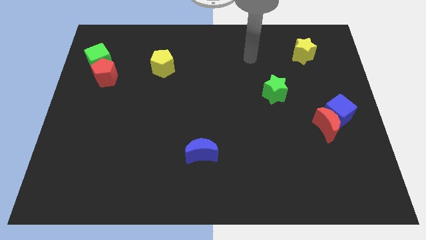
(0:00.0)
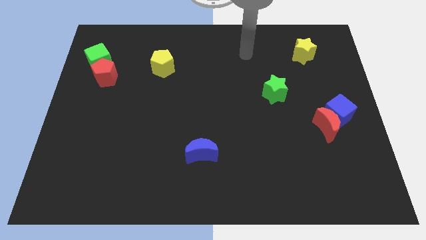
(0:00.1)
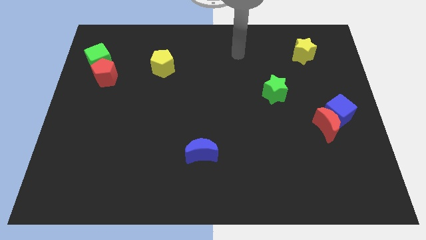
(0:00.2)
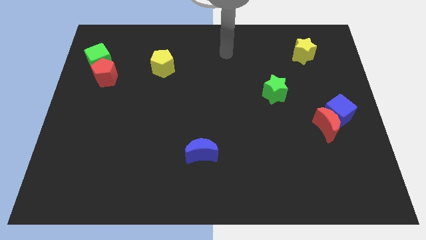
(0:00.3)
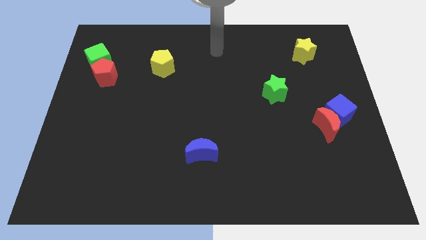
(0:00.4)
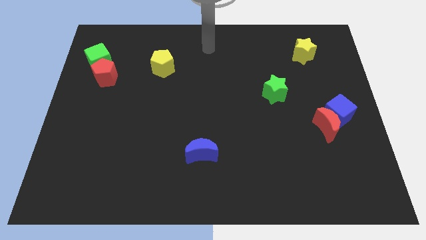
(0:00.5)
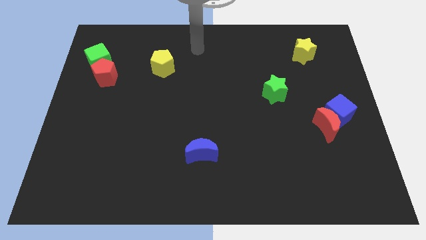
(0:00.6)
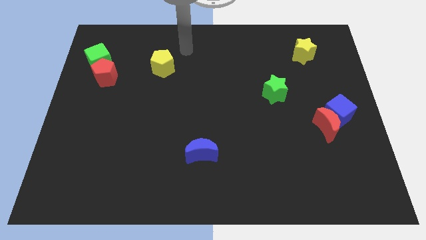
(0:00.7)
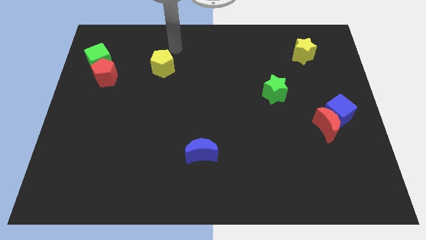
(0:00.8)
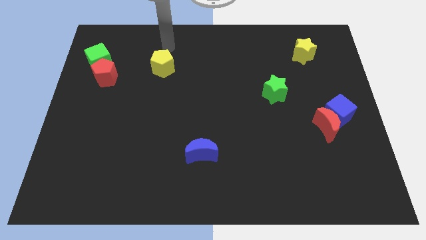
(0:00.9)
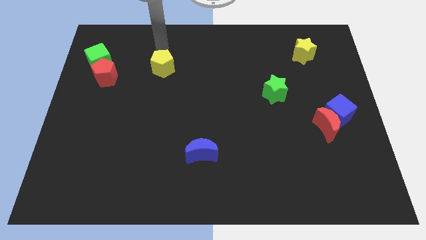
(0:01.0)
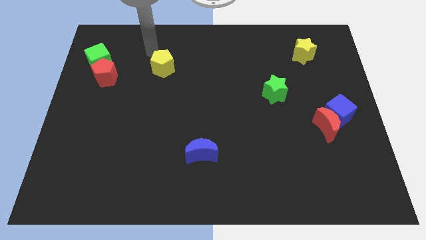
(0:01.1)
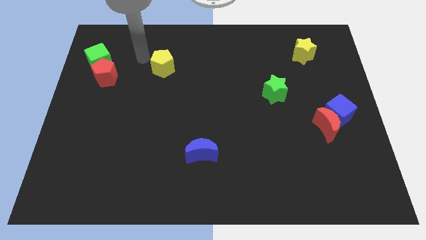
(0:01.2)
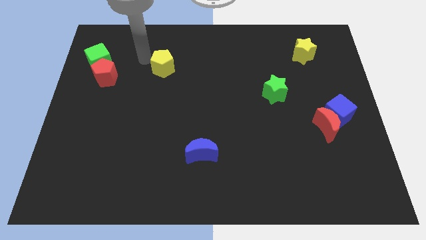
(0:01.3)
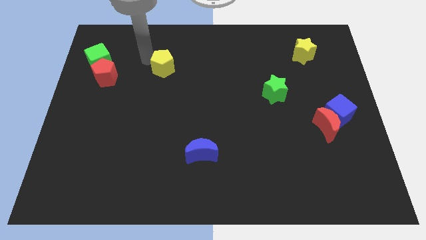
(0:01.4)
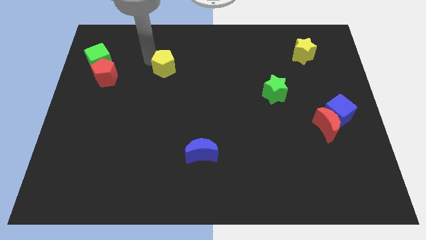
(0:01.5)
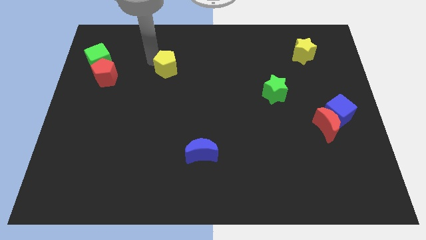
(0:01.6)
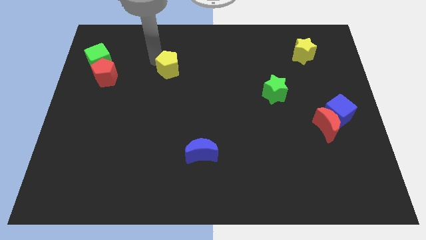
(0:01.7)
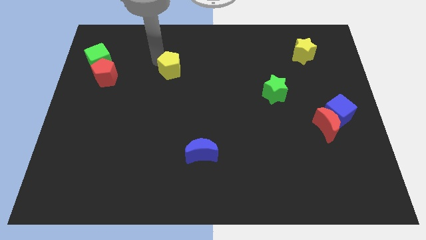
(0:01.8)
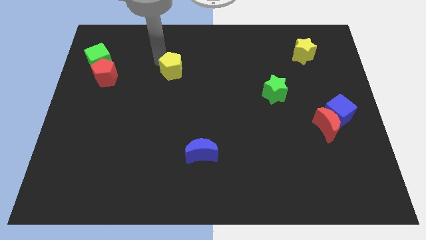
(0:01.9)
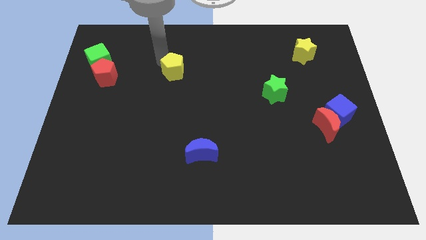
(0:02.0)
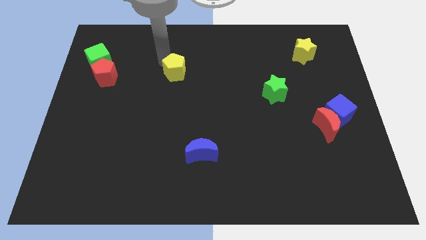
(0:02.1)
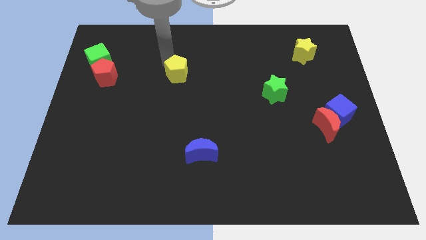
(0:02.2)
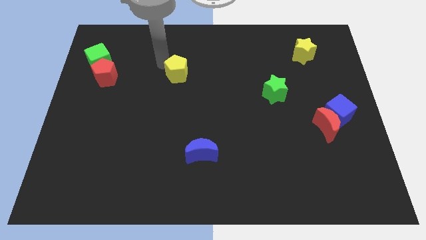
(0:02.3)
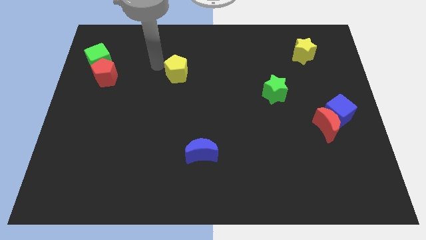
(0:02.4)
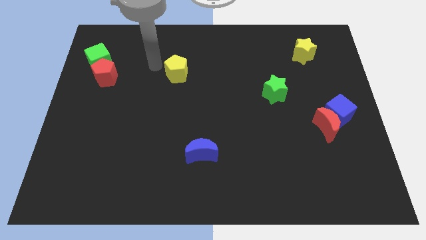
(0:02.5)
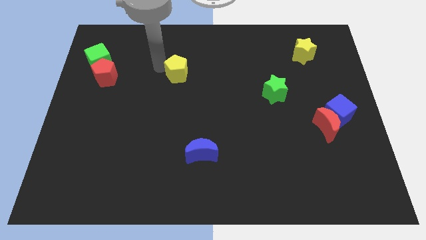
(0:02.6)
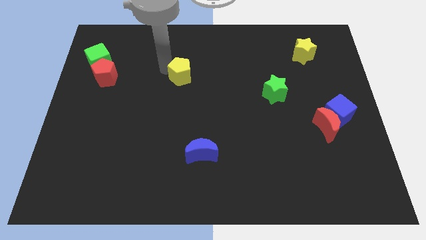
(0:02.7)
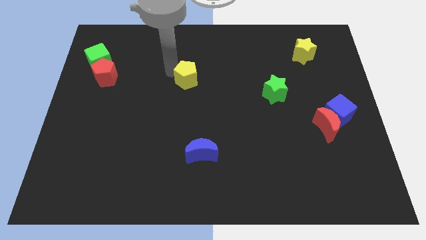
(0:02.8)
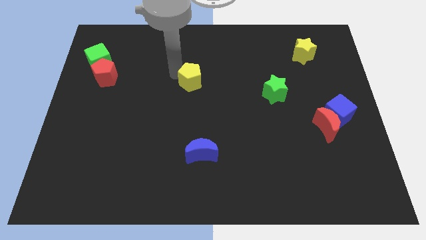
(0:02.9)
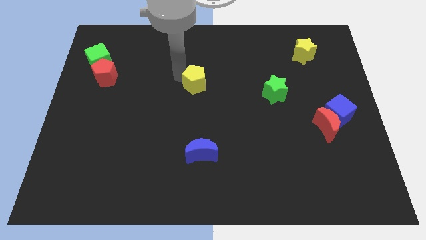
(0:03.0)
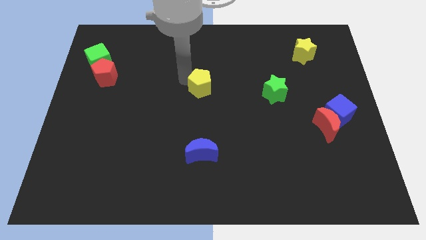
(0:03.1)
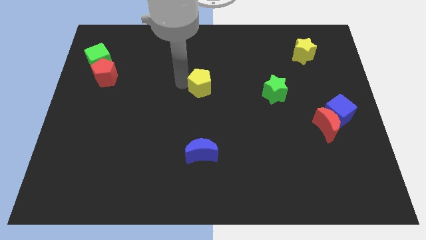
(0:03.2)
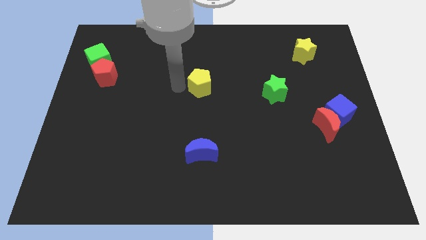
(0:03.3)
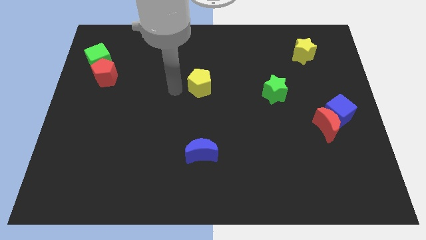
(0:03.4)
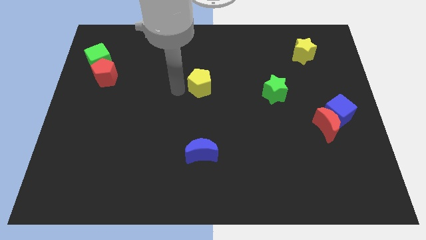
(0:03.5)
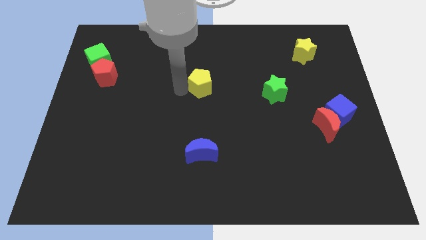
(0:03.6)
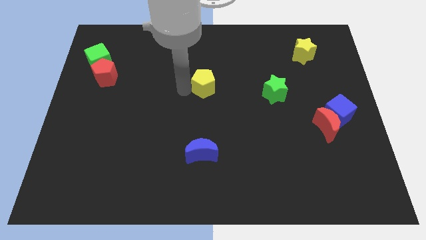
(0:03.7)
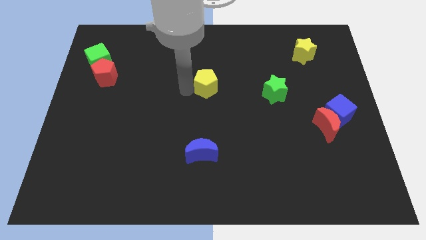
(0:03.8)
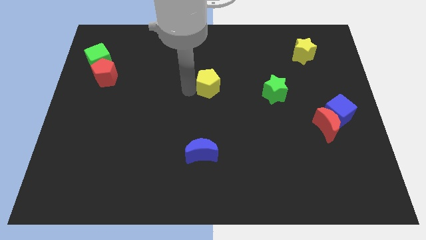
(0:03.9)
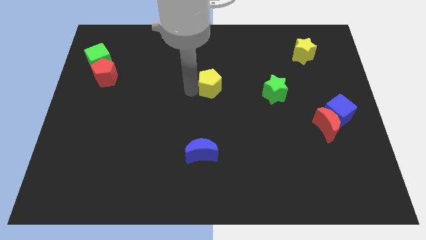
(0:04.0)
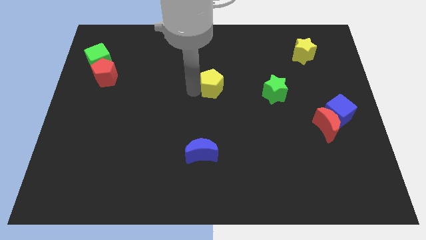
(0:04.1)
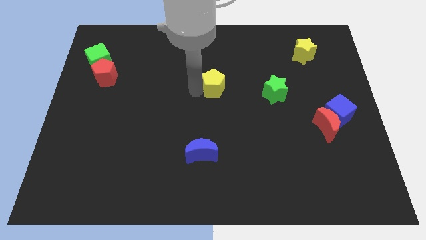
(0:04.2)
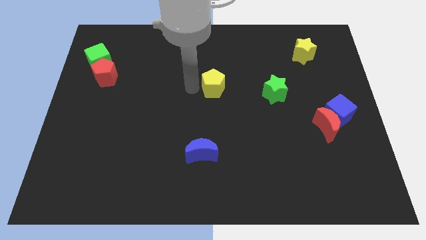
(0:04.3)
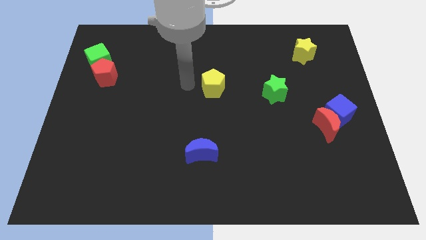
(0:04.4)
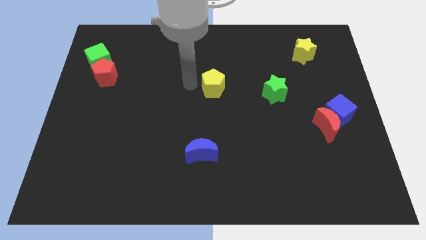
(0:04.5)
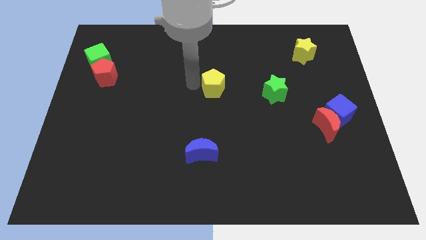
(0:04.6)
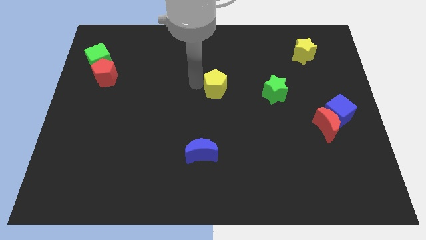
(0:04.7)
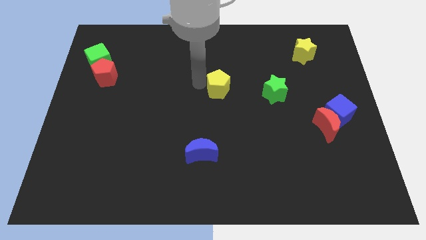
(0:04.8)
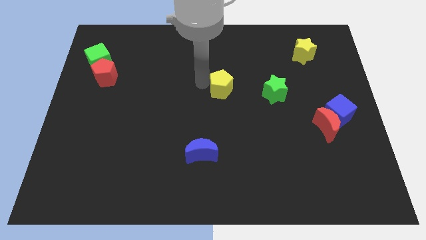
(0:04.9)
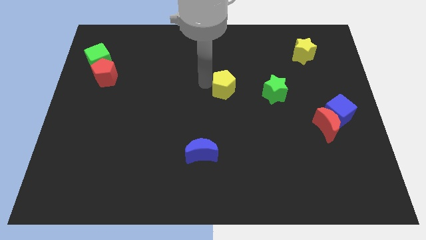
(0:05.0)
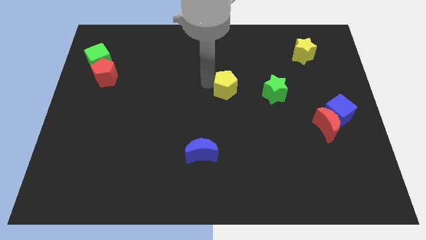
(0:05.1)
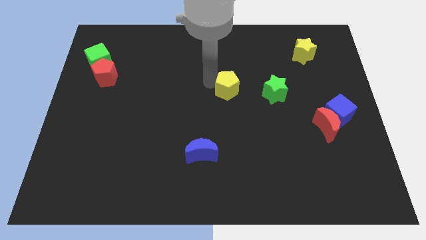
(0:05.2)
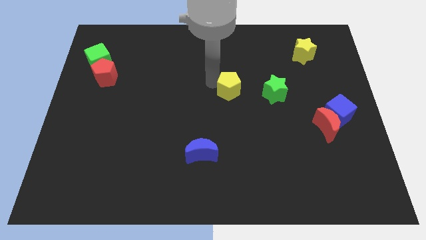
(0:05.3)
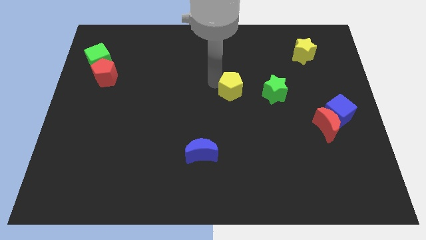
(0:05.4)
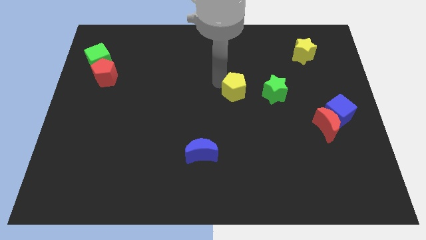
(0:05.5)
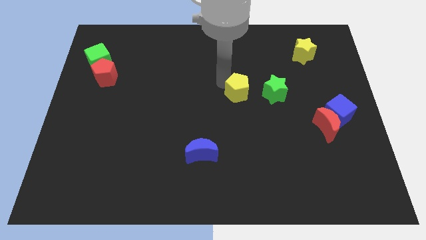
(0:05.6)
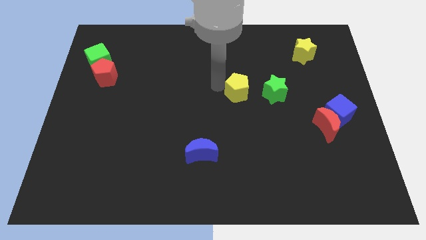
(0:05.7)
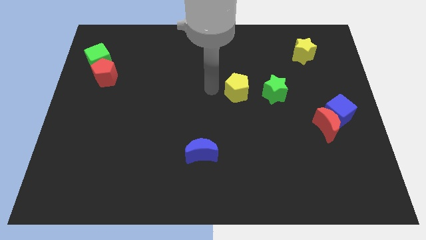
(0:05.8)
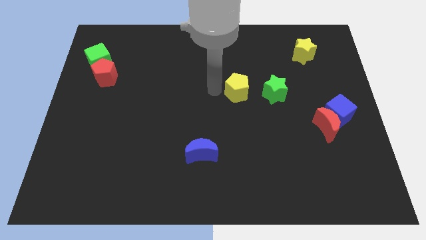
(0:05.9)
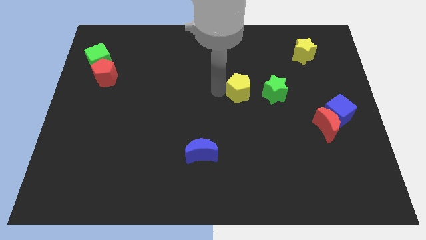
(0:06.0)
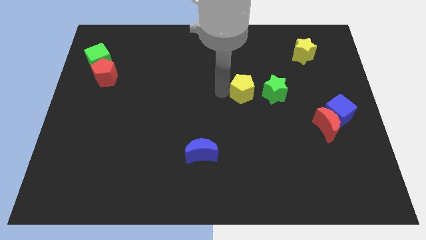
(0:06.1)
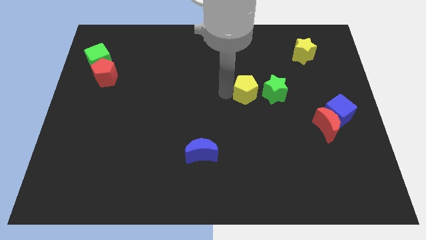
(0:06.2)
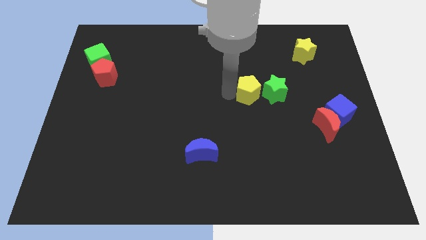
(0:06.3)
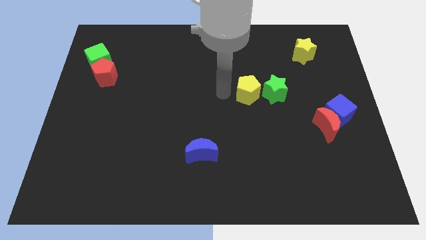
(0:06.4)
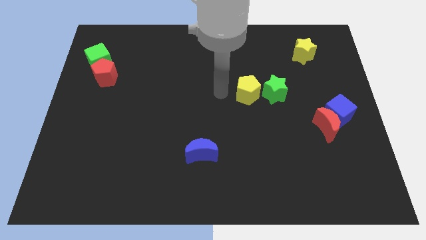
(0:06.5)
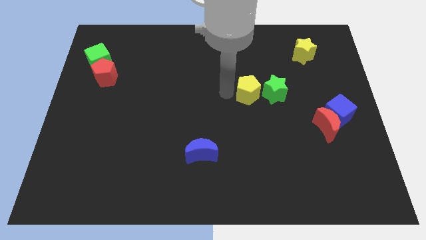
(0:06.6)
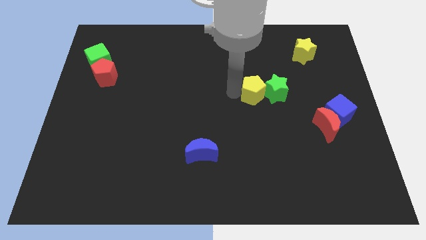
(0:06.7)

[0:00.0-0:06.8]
move the yellow pentagon towards the green star

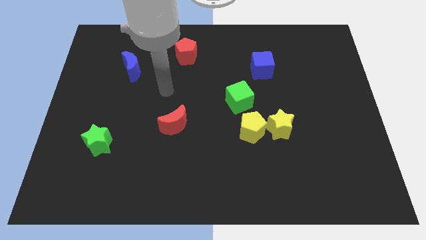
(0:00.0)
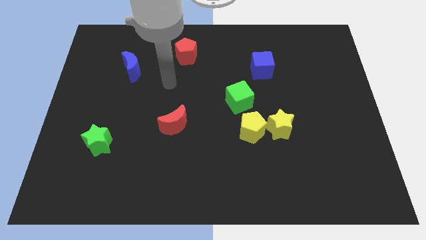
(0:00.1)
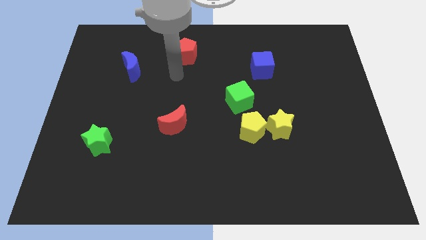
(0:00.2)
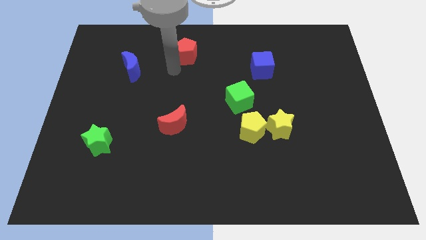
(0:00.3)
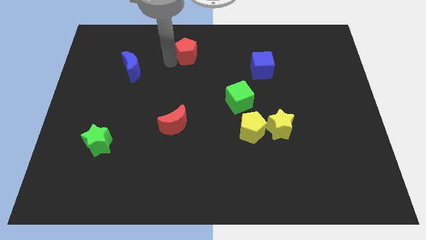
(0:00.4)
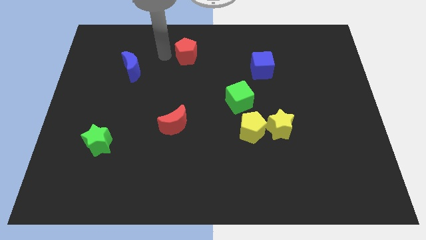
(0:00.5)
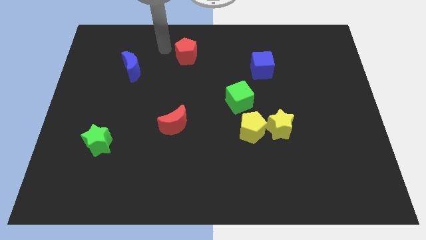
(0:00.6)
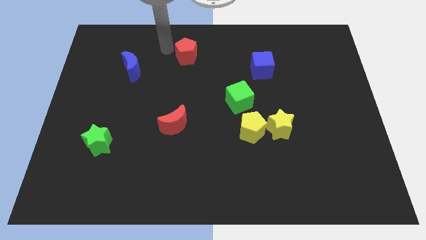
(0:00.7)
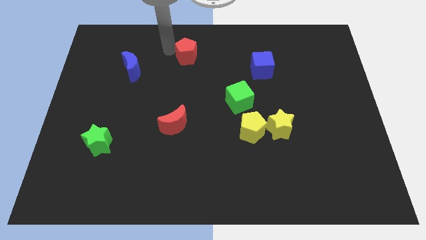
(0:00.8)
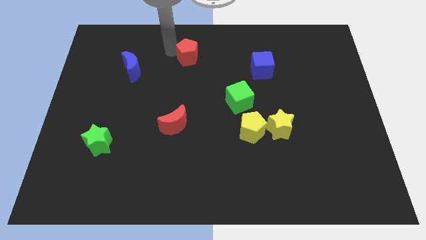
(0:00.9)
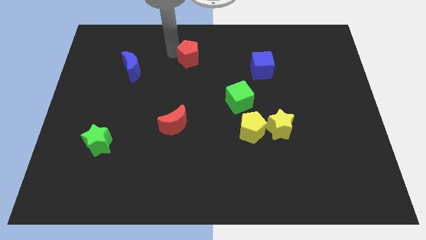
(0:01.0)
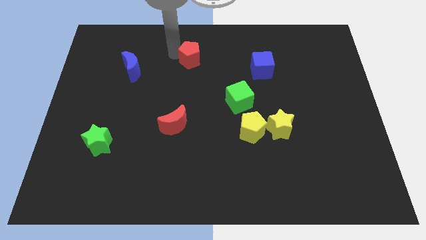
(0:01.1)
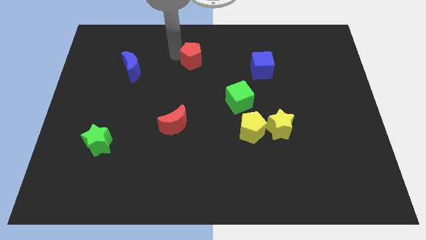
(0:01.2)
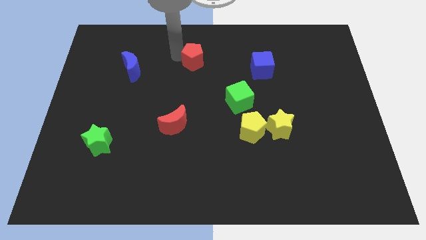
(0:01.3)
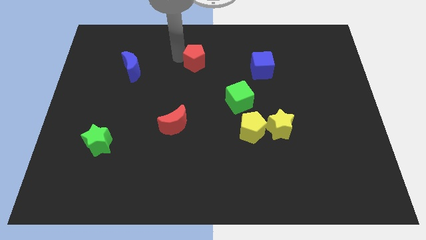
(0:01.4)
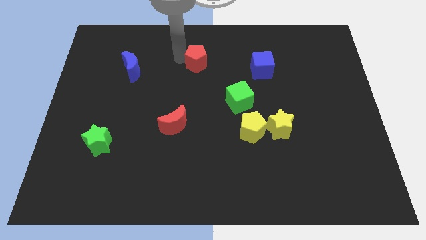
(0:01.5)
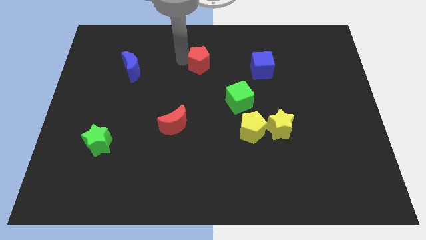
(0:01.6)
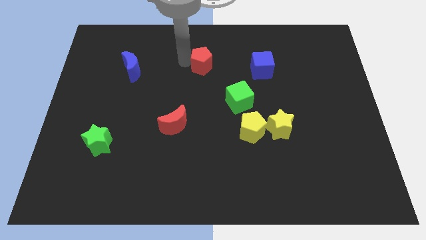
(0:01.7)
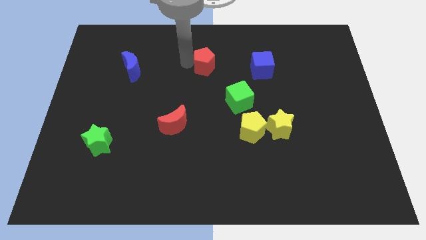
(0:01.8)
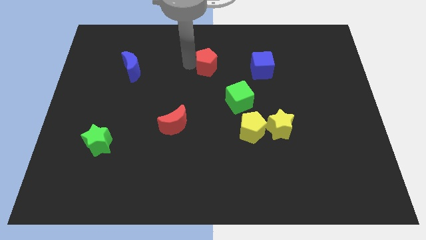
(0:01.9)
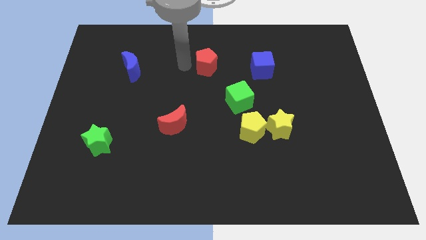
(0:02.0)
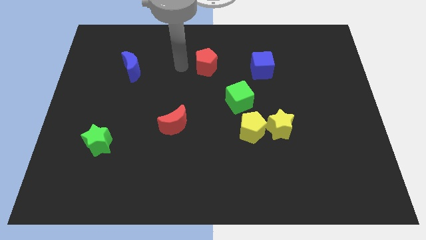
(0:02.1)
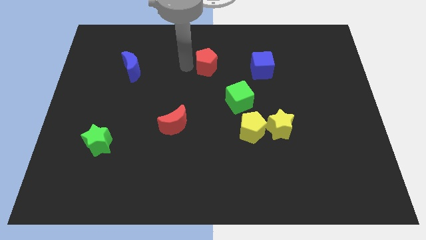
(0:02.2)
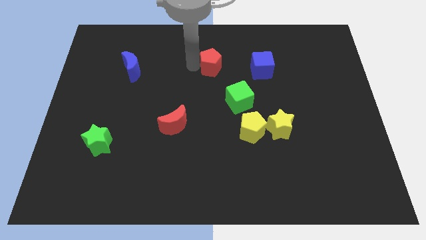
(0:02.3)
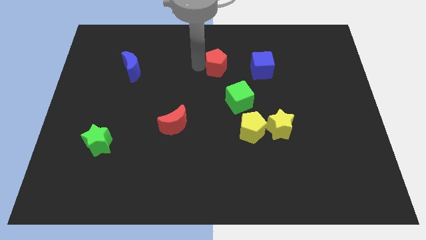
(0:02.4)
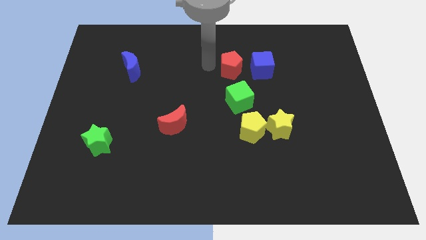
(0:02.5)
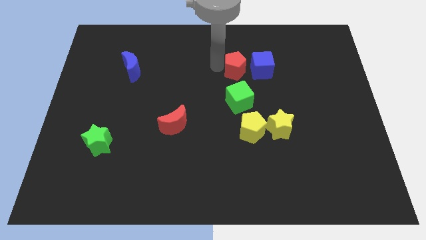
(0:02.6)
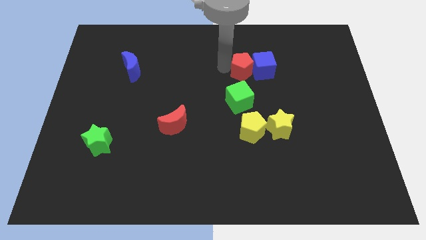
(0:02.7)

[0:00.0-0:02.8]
put the red pentagon towards the blue cube
